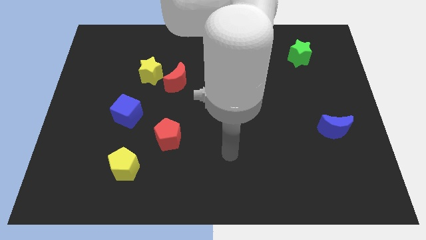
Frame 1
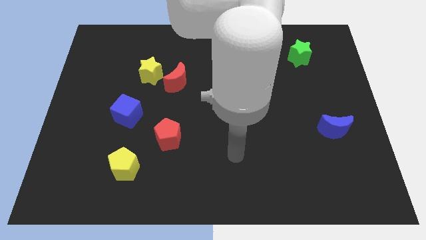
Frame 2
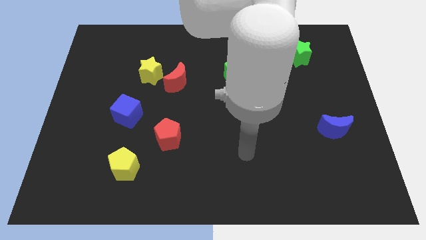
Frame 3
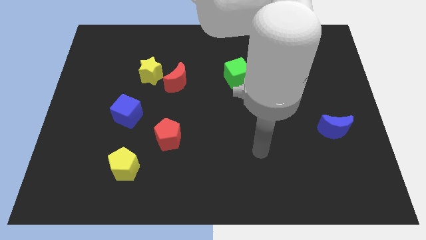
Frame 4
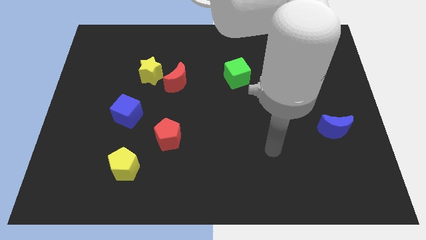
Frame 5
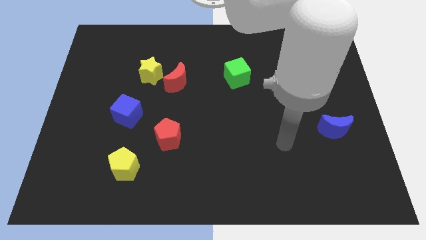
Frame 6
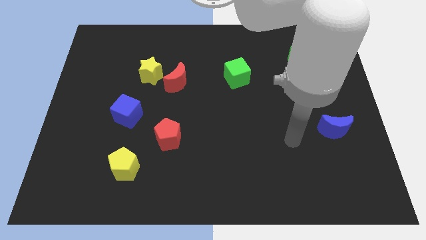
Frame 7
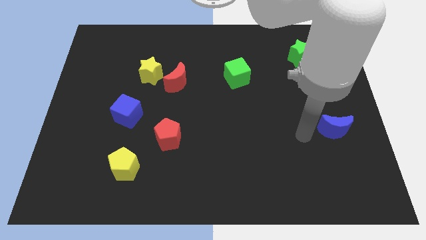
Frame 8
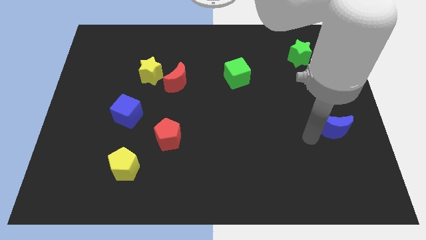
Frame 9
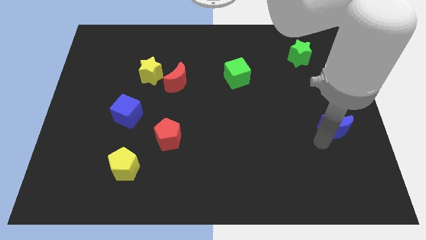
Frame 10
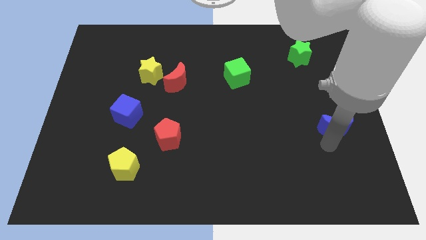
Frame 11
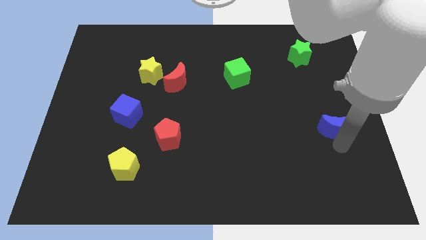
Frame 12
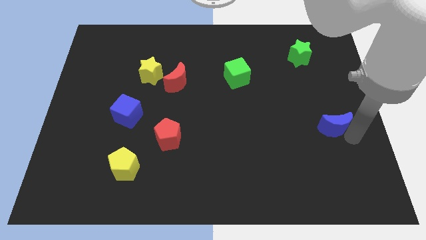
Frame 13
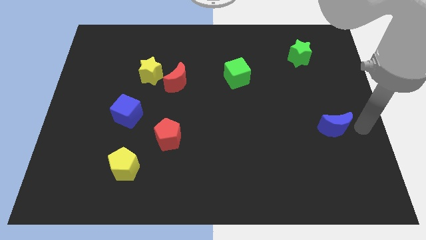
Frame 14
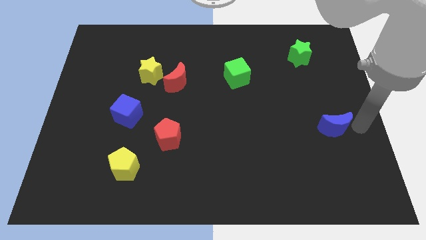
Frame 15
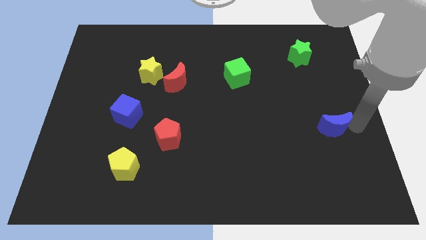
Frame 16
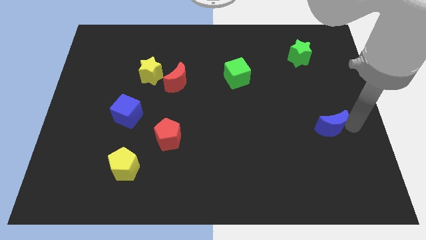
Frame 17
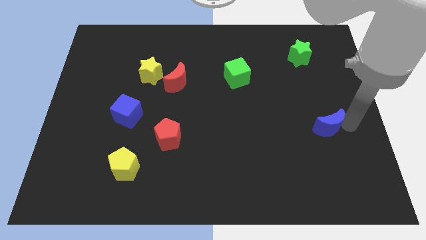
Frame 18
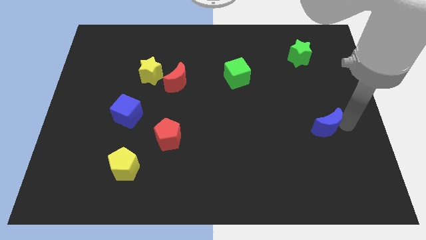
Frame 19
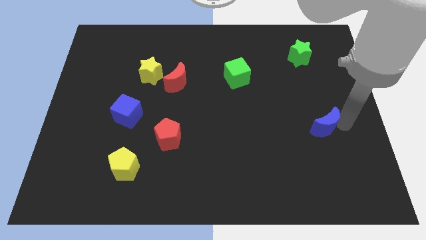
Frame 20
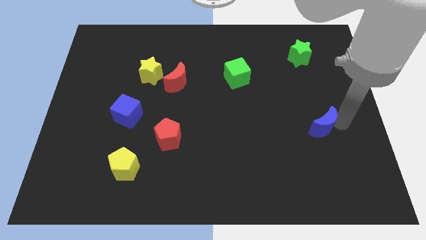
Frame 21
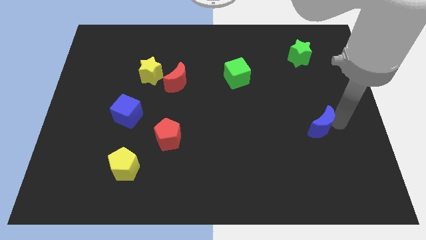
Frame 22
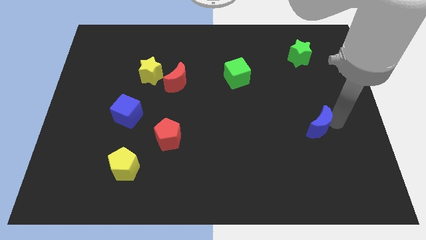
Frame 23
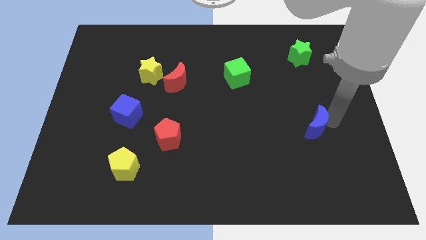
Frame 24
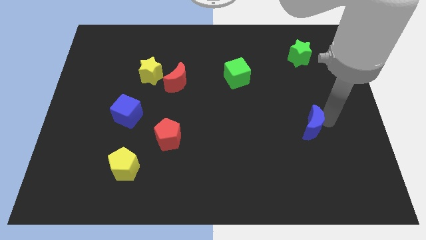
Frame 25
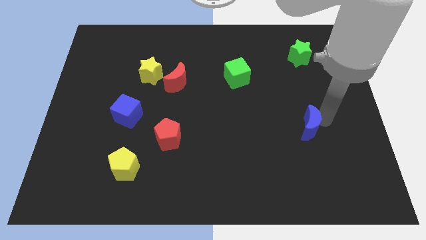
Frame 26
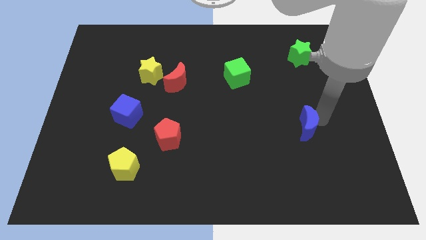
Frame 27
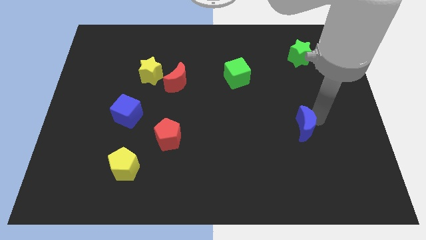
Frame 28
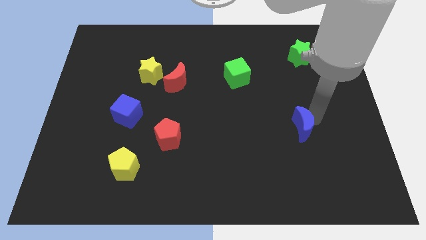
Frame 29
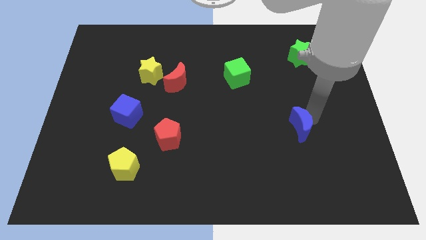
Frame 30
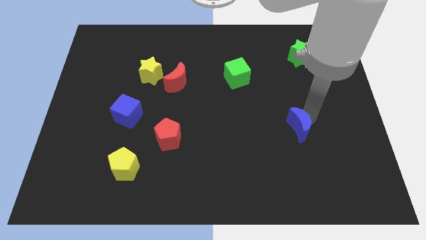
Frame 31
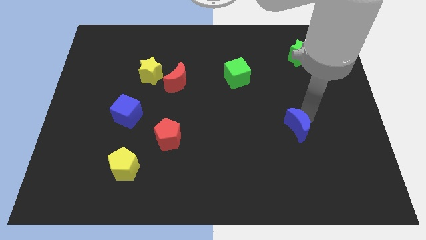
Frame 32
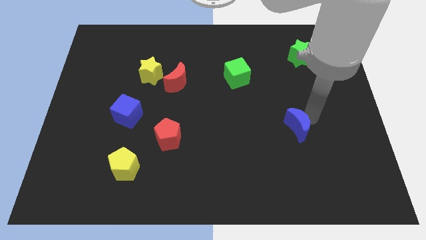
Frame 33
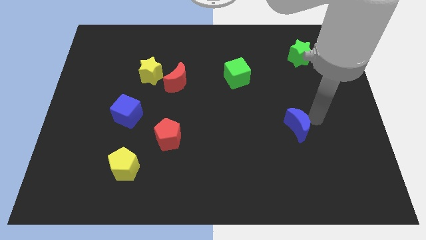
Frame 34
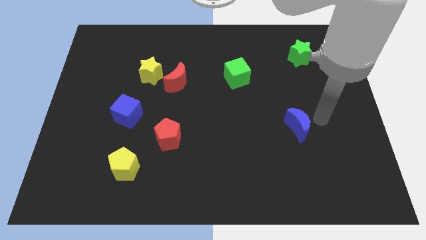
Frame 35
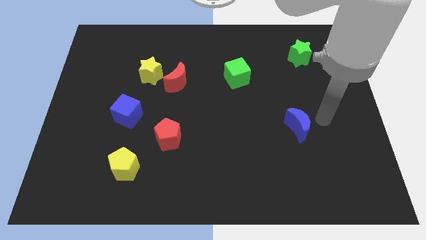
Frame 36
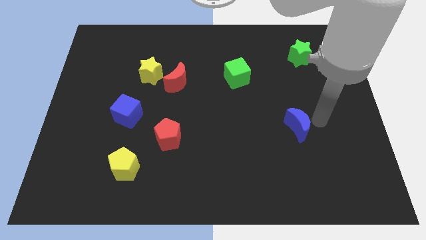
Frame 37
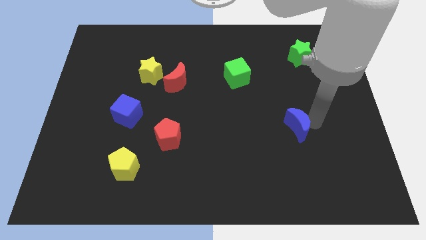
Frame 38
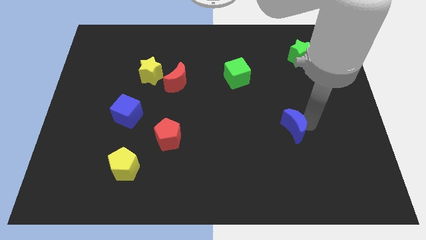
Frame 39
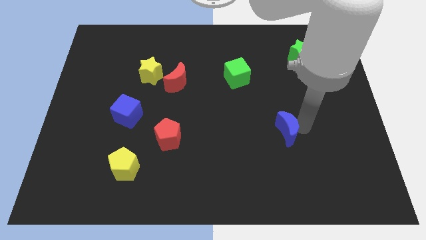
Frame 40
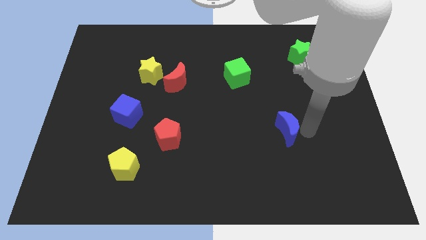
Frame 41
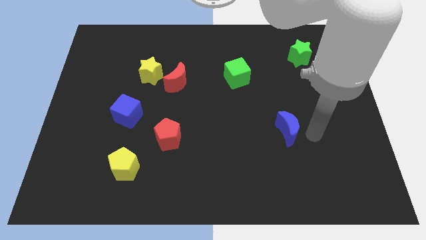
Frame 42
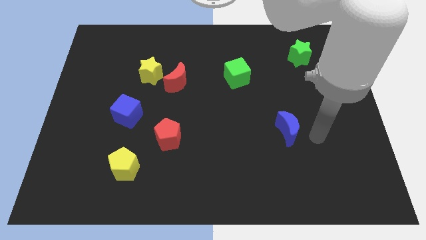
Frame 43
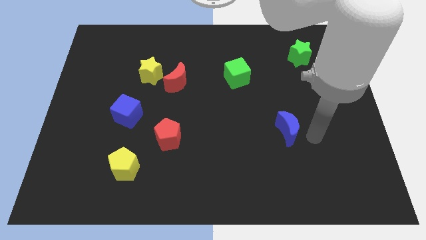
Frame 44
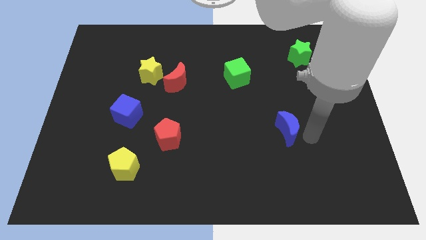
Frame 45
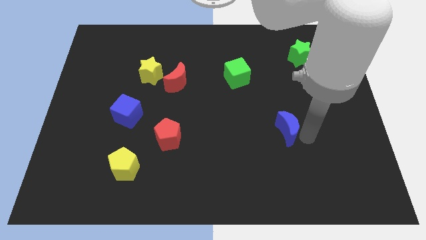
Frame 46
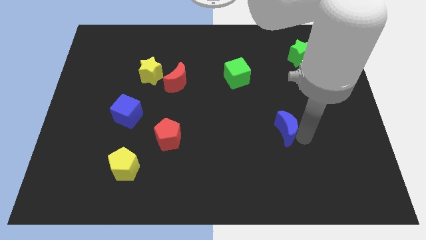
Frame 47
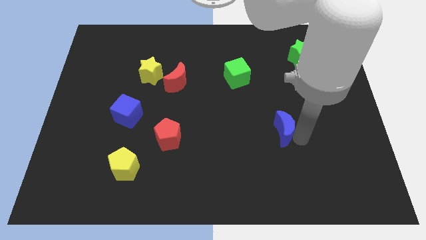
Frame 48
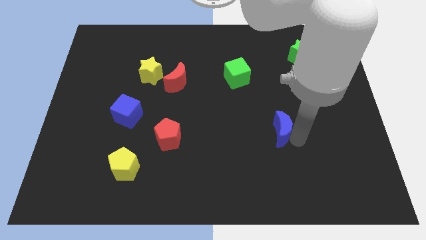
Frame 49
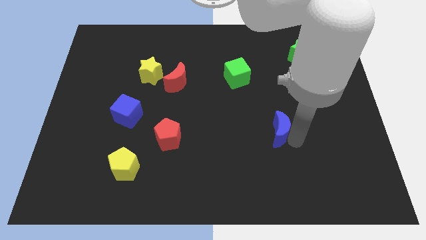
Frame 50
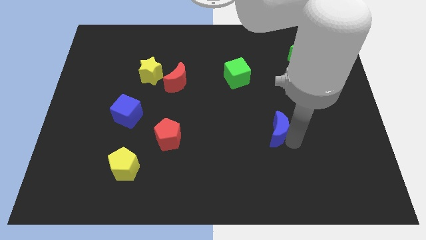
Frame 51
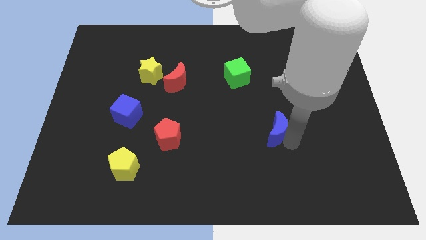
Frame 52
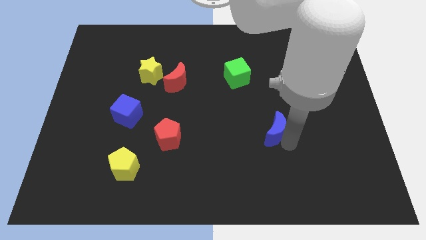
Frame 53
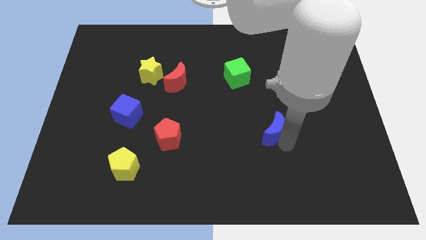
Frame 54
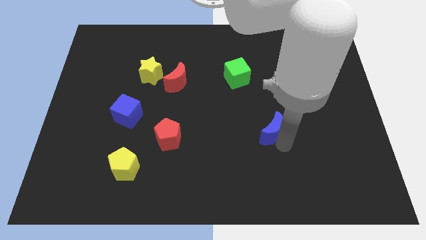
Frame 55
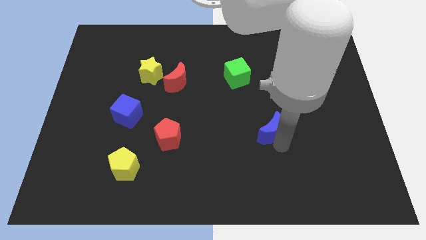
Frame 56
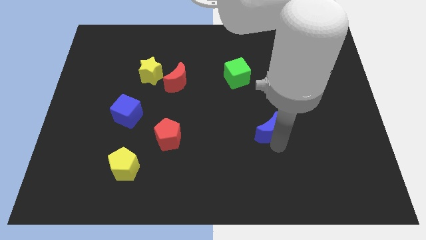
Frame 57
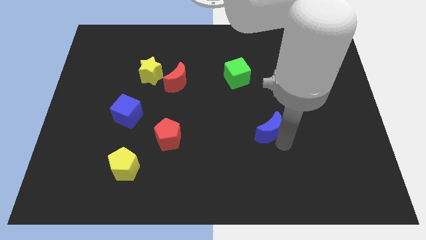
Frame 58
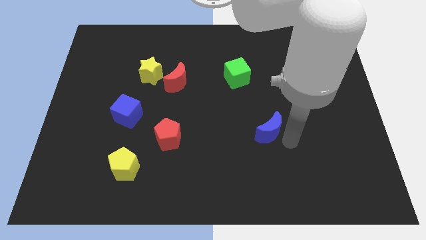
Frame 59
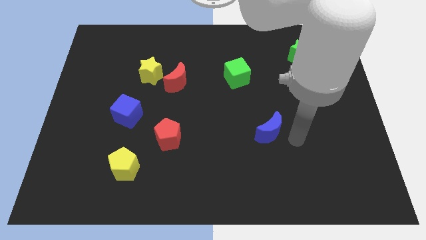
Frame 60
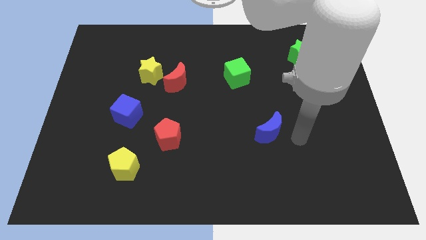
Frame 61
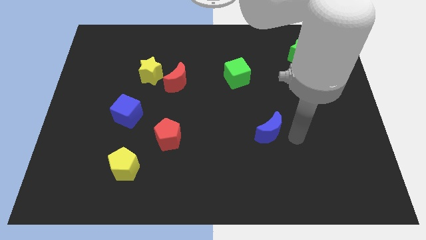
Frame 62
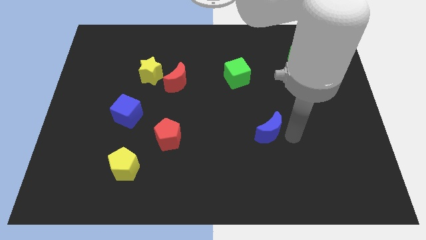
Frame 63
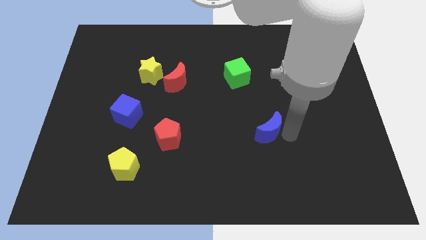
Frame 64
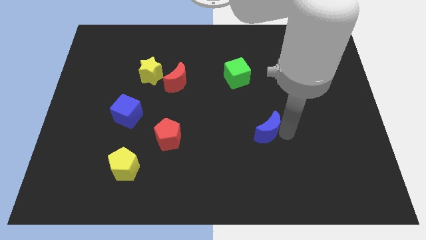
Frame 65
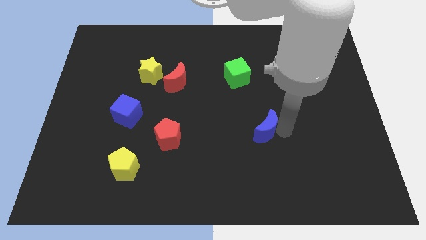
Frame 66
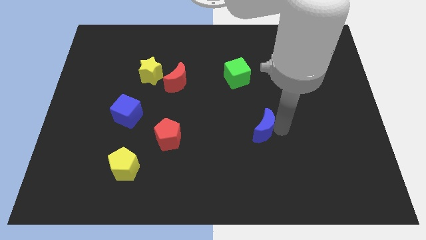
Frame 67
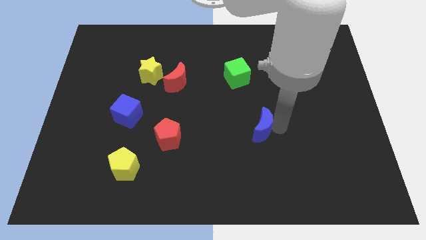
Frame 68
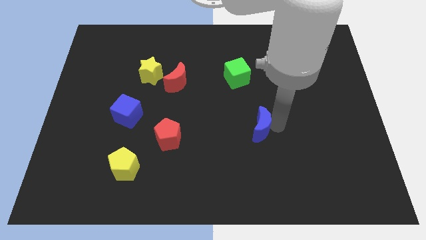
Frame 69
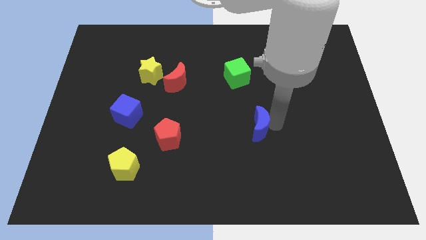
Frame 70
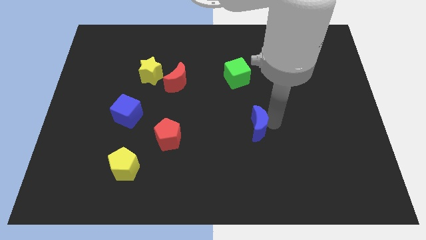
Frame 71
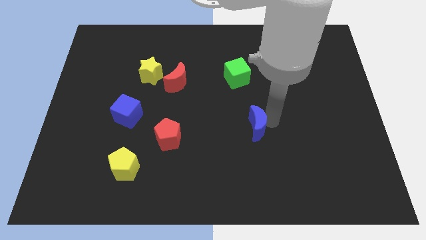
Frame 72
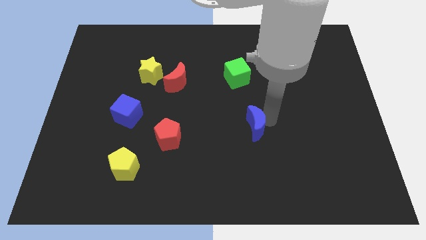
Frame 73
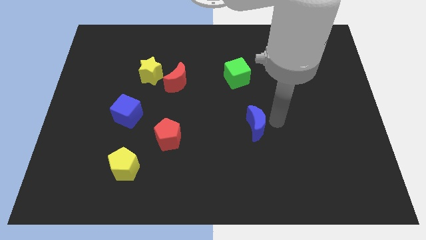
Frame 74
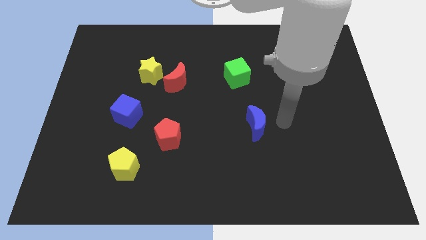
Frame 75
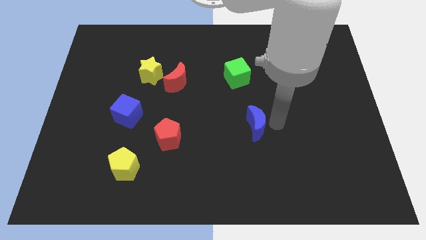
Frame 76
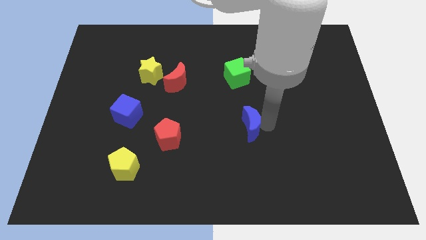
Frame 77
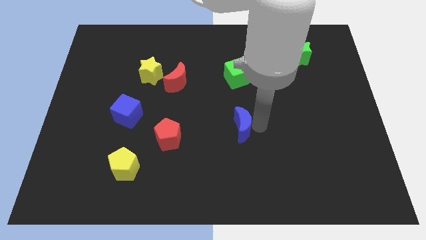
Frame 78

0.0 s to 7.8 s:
slide the blue moon left

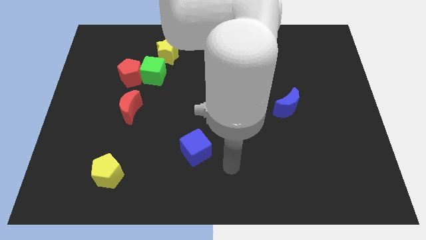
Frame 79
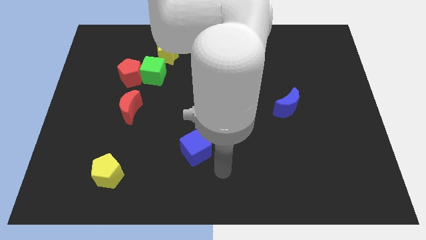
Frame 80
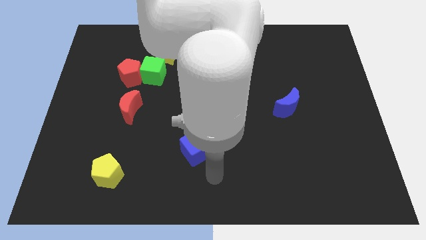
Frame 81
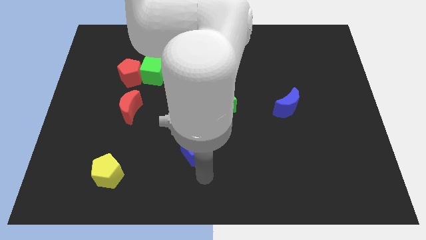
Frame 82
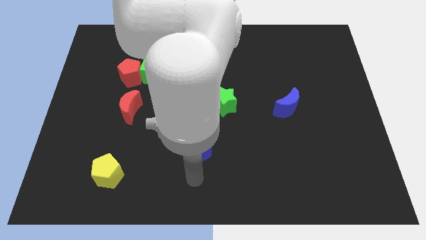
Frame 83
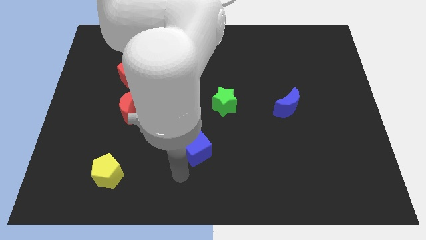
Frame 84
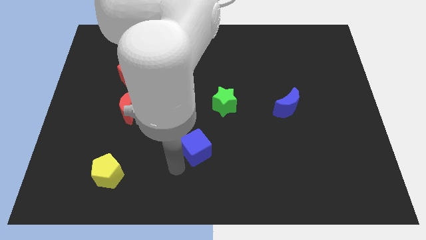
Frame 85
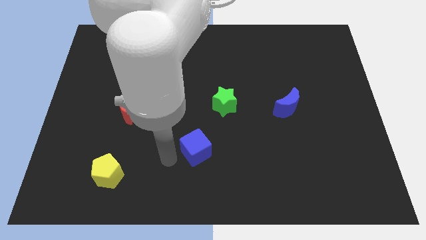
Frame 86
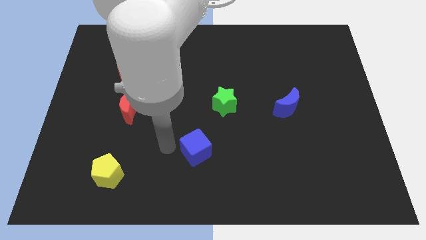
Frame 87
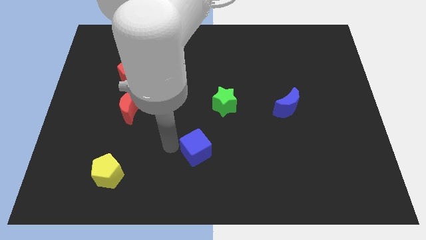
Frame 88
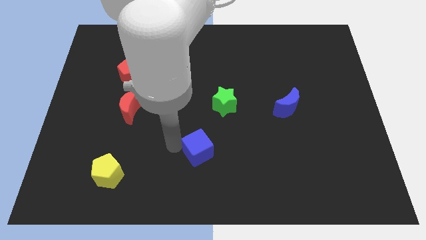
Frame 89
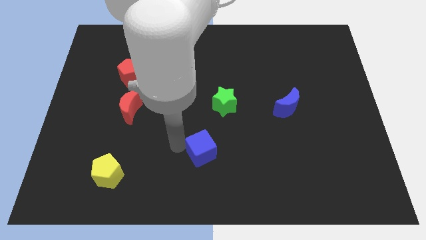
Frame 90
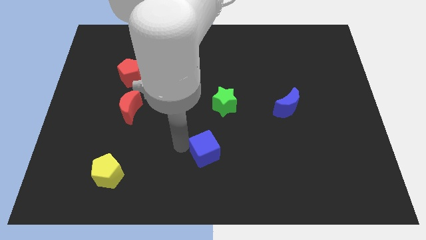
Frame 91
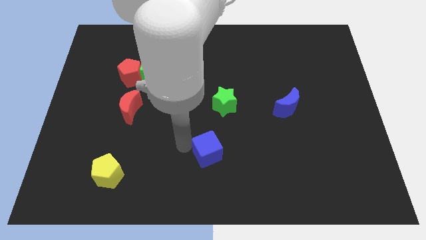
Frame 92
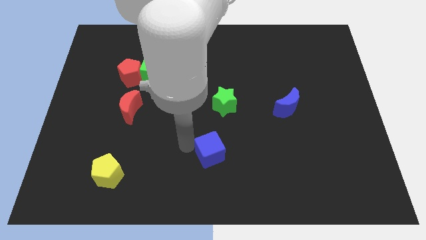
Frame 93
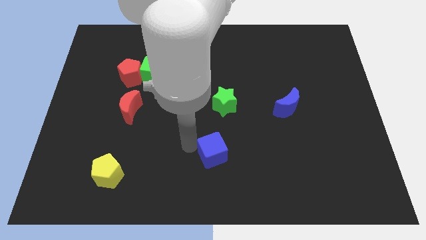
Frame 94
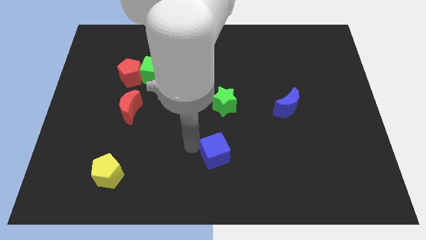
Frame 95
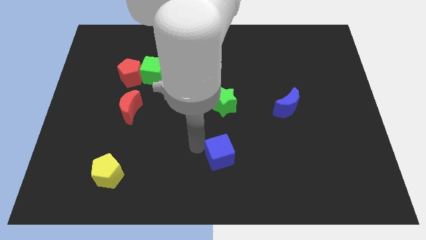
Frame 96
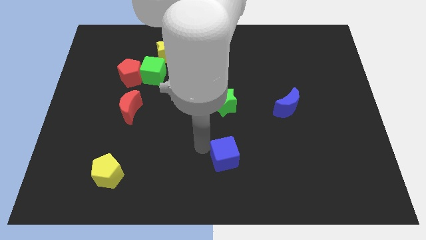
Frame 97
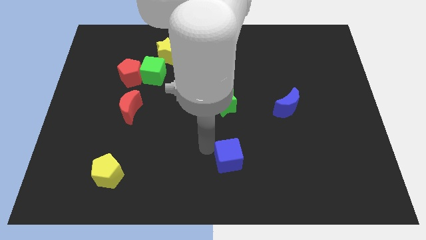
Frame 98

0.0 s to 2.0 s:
slide the blue cube a bit right
